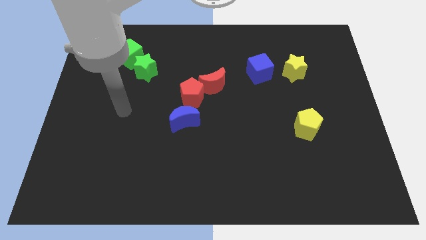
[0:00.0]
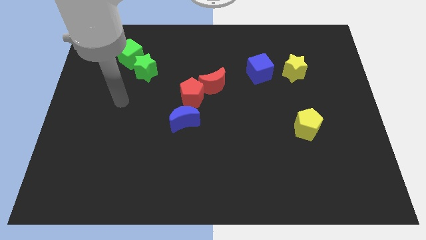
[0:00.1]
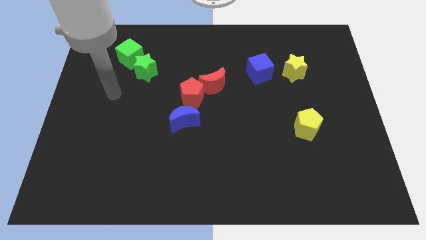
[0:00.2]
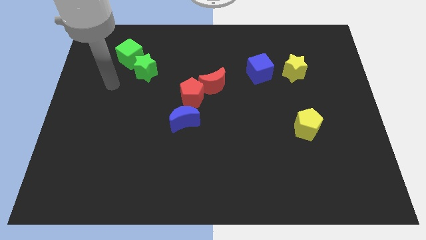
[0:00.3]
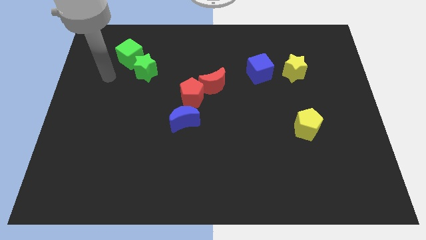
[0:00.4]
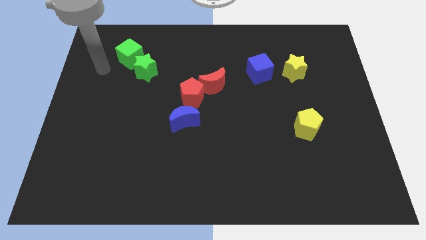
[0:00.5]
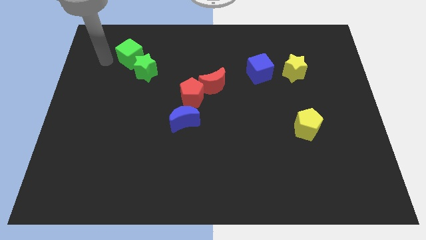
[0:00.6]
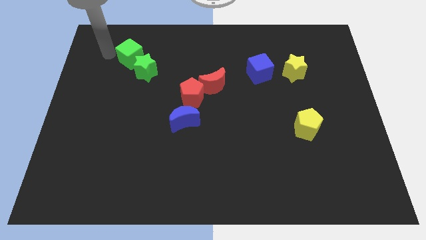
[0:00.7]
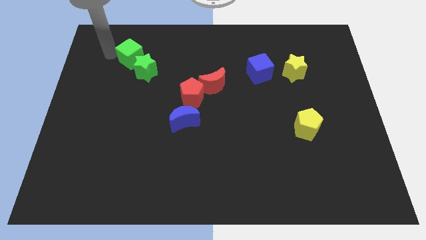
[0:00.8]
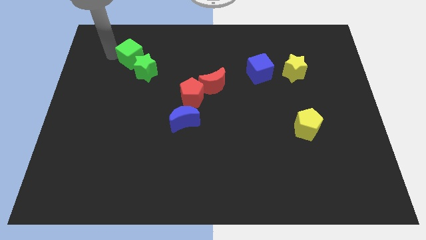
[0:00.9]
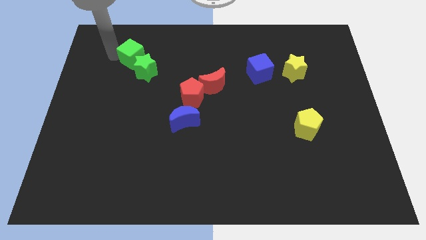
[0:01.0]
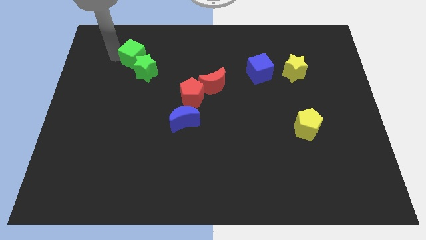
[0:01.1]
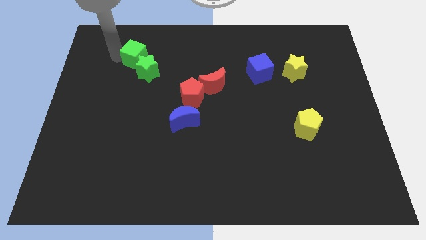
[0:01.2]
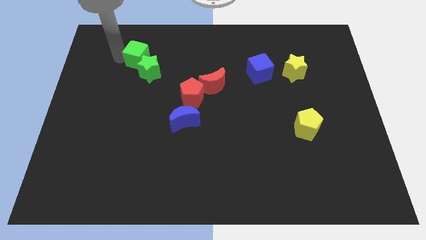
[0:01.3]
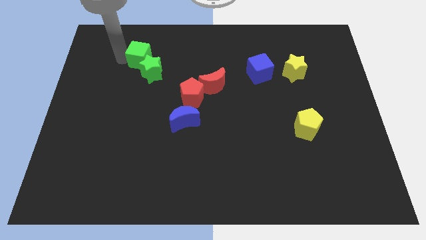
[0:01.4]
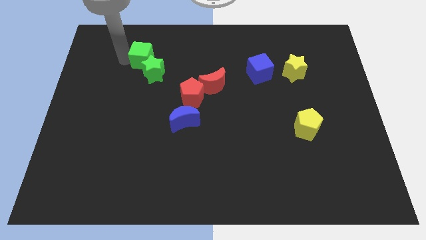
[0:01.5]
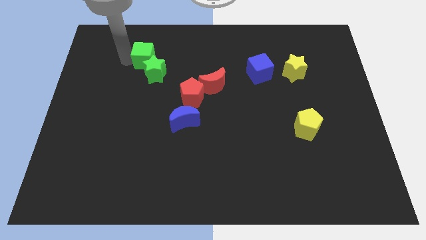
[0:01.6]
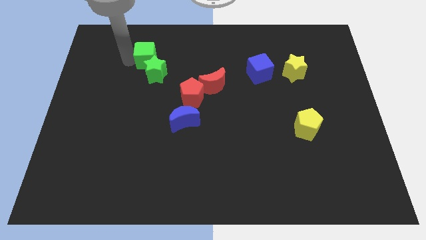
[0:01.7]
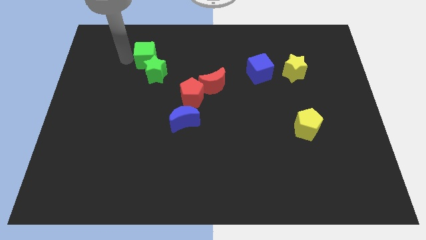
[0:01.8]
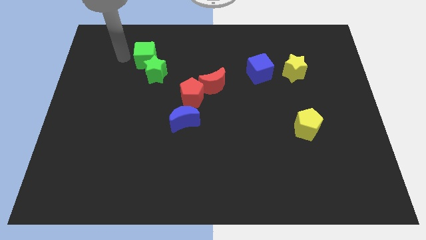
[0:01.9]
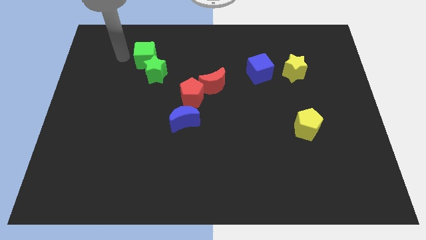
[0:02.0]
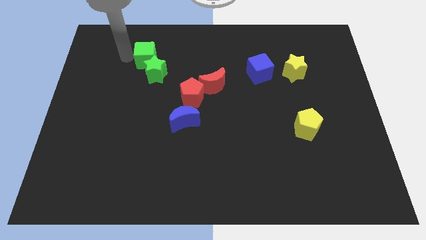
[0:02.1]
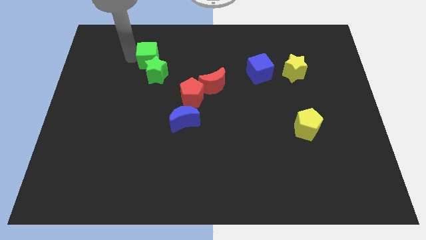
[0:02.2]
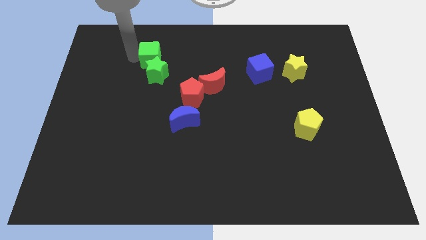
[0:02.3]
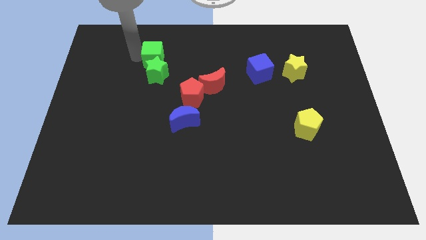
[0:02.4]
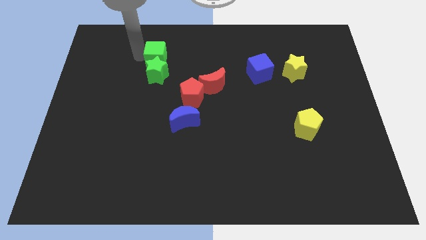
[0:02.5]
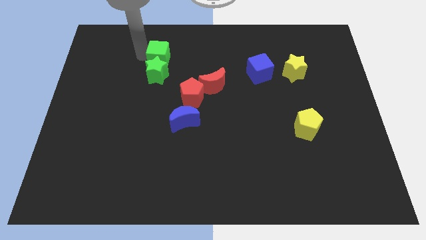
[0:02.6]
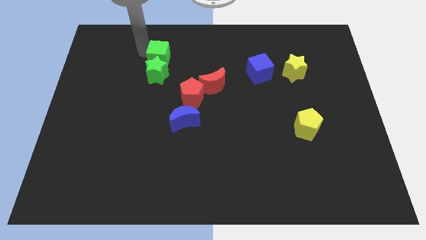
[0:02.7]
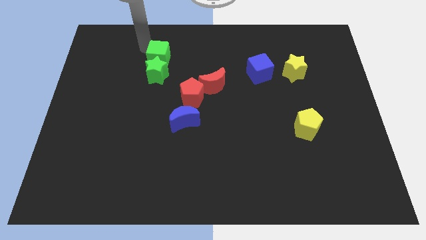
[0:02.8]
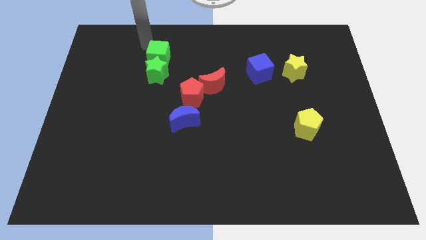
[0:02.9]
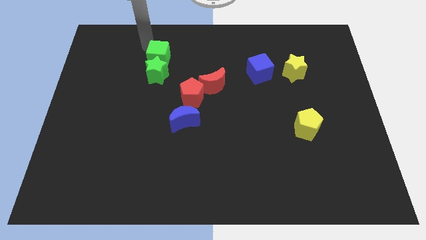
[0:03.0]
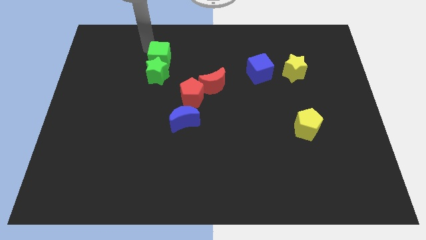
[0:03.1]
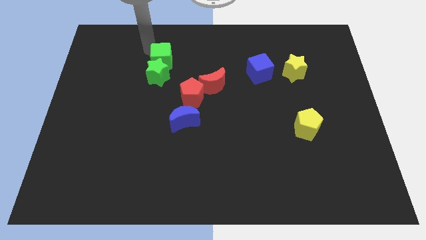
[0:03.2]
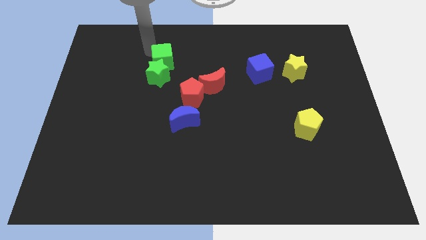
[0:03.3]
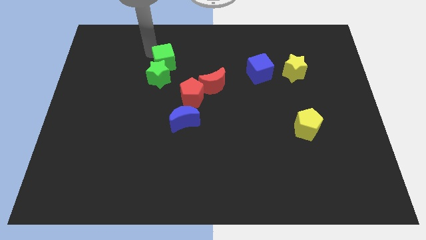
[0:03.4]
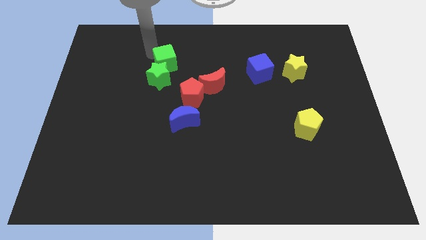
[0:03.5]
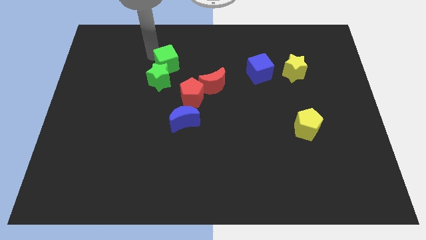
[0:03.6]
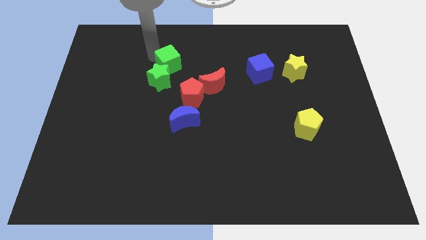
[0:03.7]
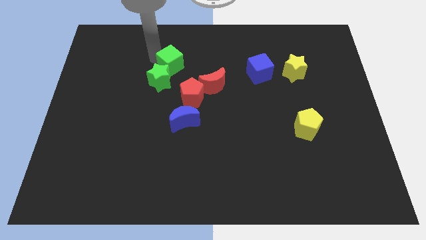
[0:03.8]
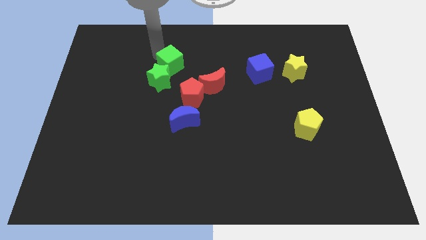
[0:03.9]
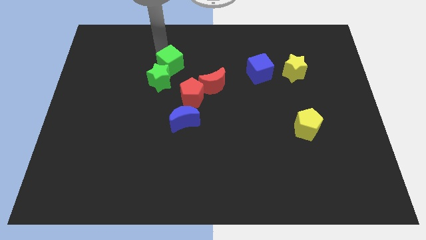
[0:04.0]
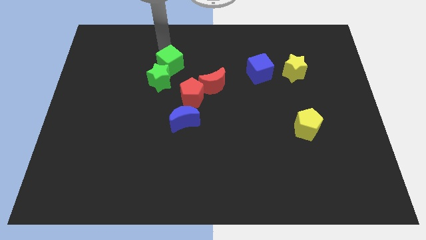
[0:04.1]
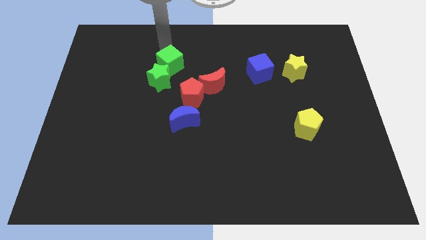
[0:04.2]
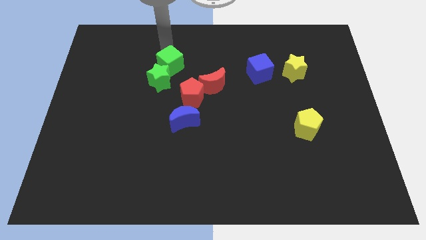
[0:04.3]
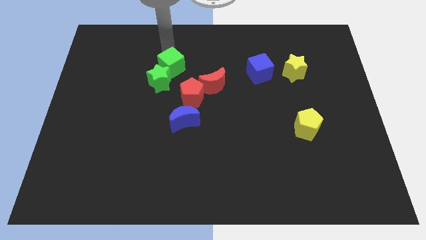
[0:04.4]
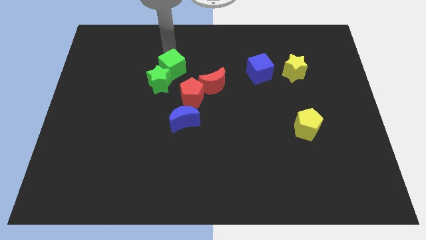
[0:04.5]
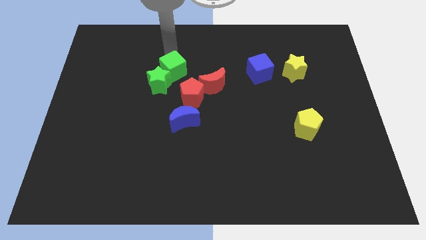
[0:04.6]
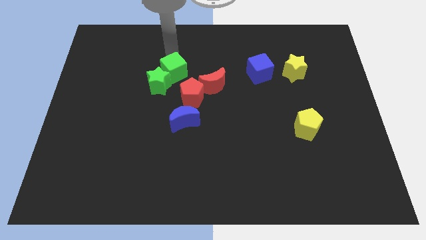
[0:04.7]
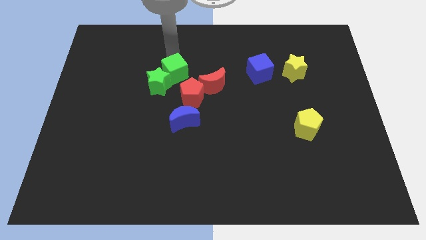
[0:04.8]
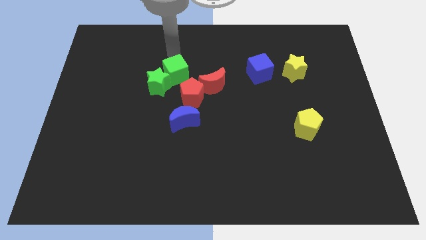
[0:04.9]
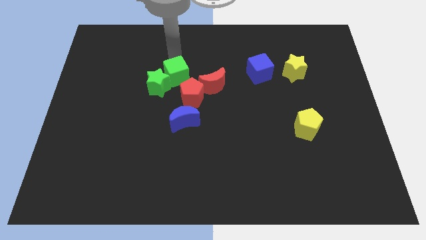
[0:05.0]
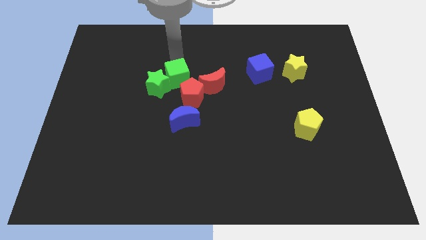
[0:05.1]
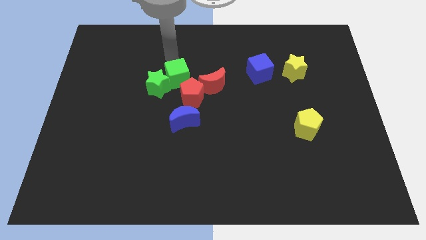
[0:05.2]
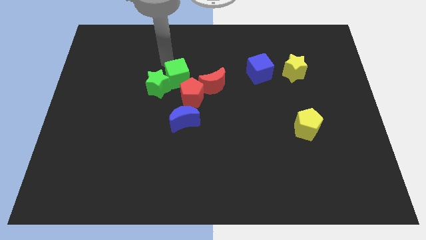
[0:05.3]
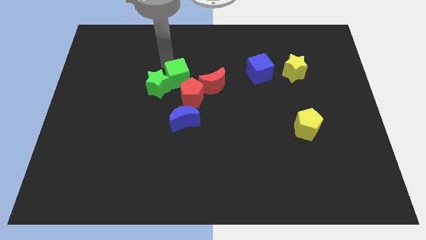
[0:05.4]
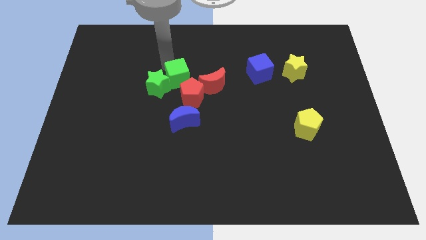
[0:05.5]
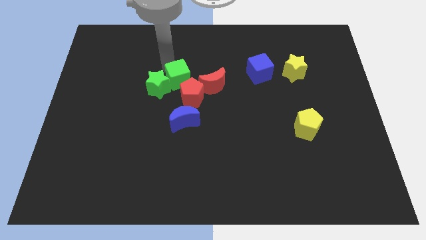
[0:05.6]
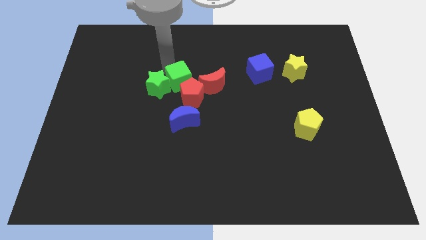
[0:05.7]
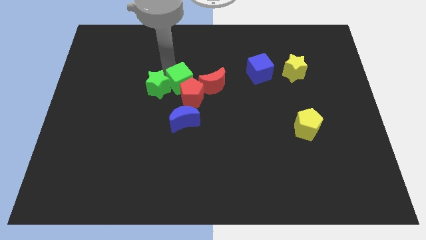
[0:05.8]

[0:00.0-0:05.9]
slide the green cube next to the red pentagon

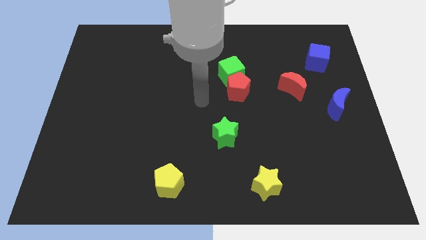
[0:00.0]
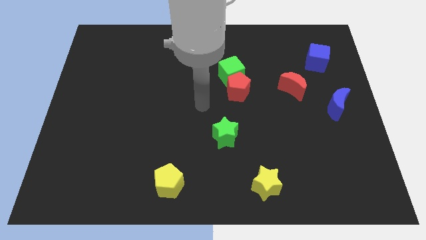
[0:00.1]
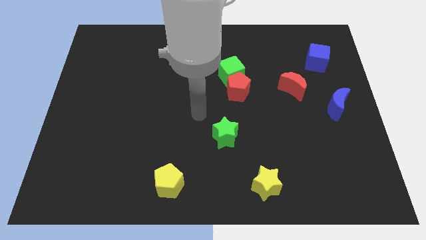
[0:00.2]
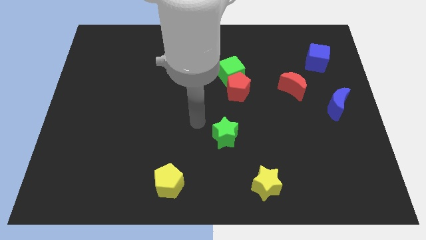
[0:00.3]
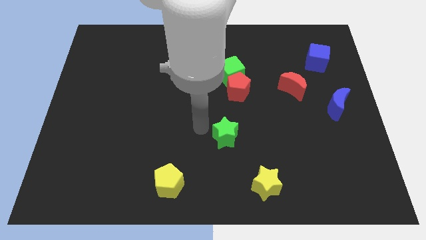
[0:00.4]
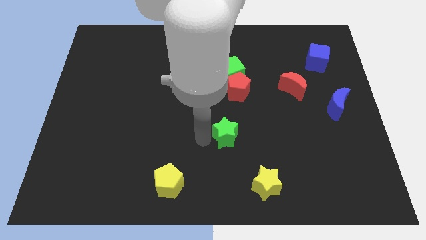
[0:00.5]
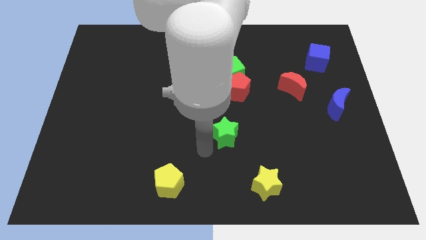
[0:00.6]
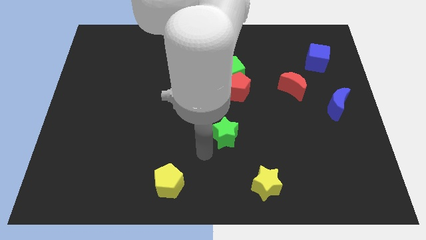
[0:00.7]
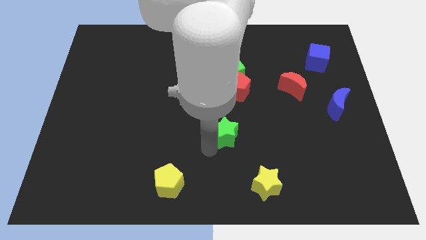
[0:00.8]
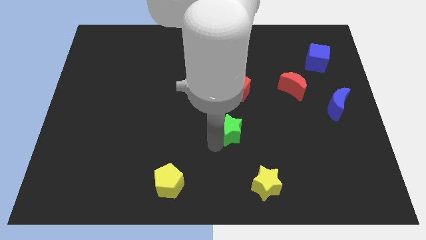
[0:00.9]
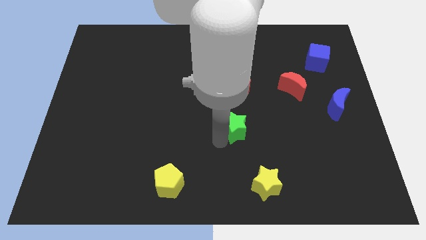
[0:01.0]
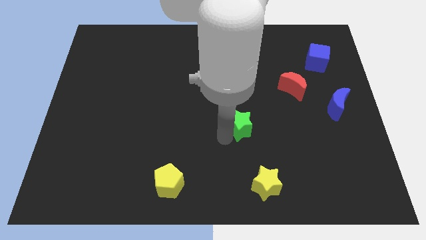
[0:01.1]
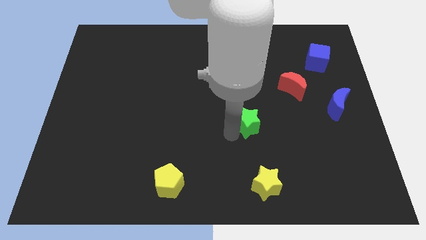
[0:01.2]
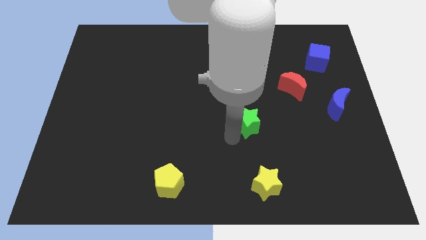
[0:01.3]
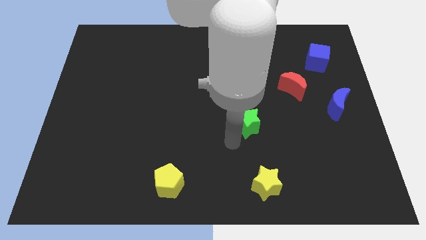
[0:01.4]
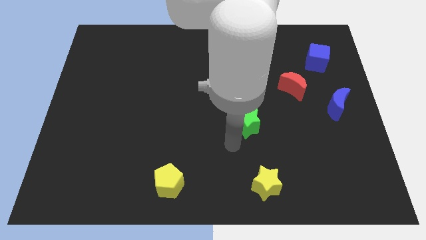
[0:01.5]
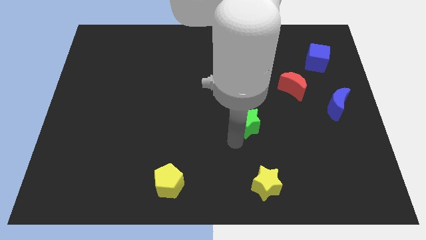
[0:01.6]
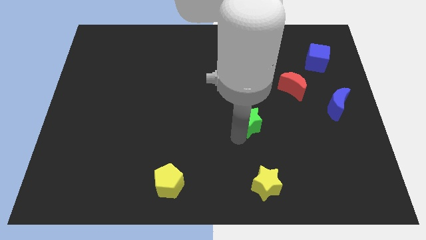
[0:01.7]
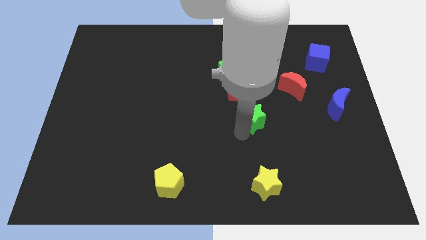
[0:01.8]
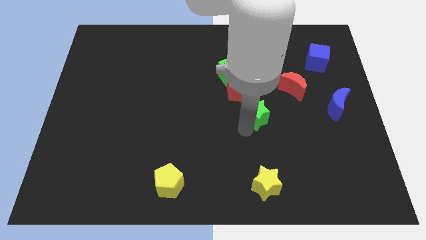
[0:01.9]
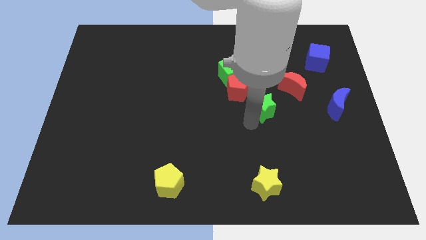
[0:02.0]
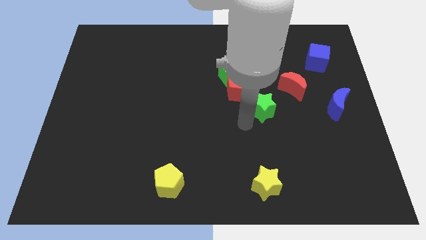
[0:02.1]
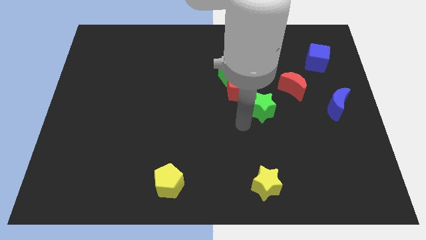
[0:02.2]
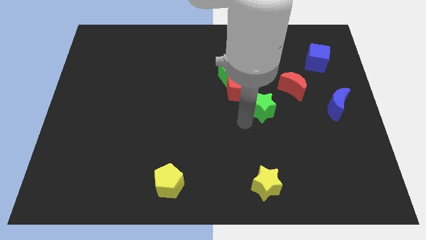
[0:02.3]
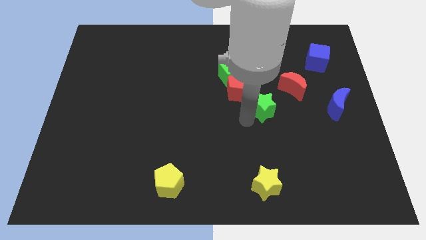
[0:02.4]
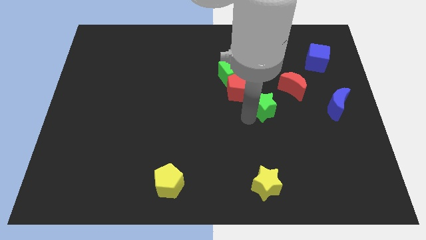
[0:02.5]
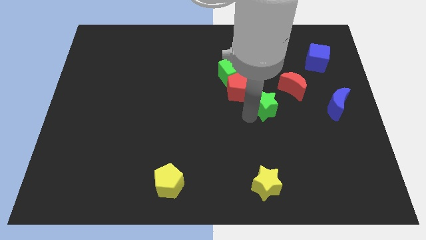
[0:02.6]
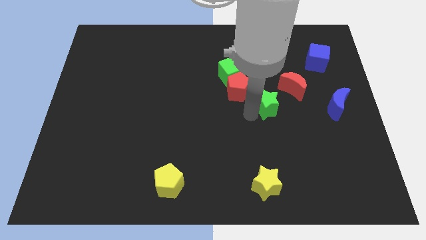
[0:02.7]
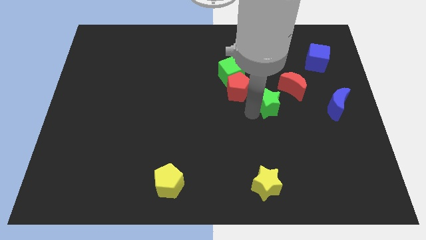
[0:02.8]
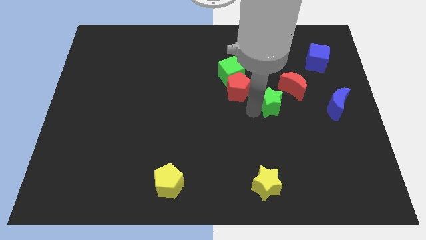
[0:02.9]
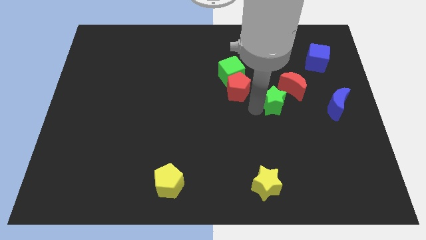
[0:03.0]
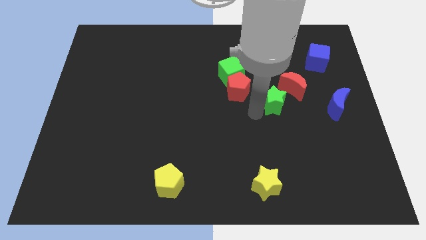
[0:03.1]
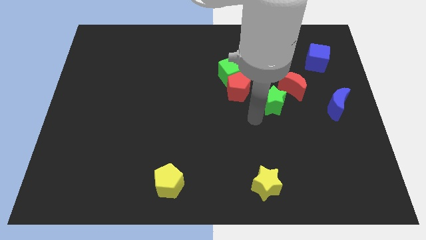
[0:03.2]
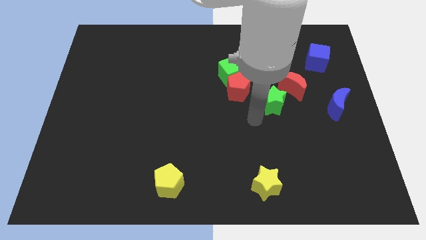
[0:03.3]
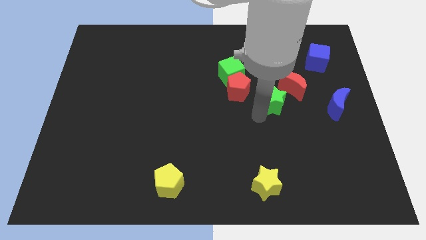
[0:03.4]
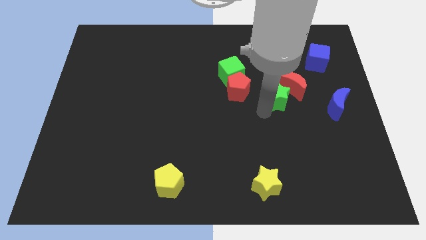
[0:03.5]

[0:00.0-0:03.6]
slide the green star close to the red moon
